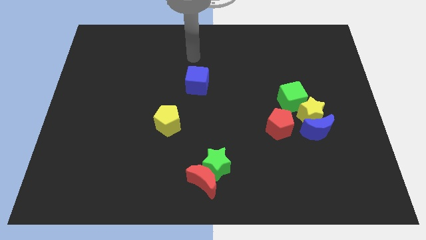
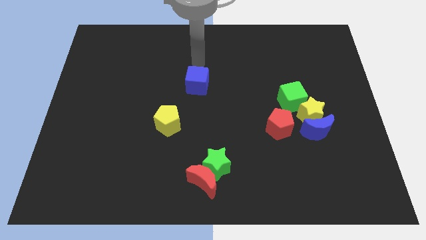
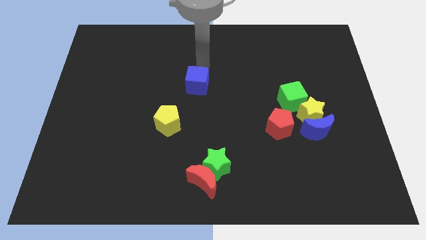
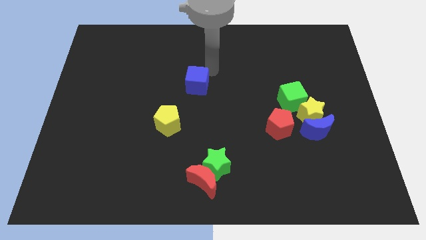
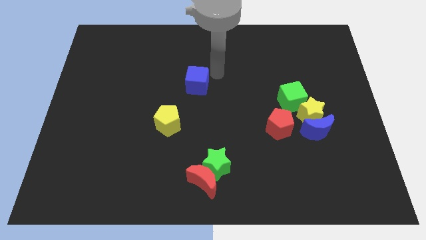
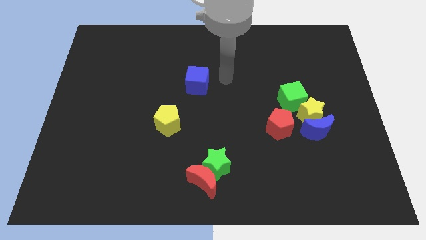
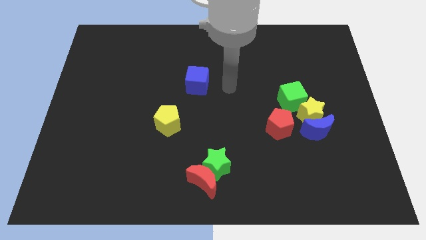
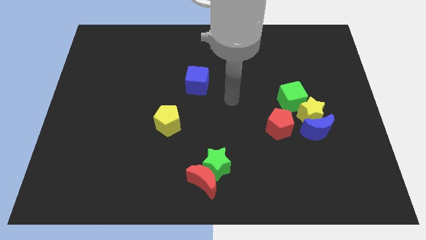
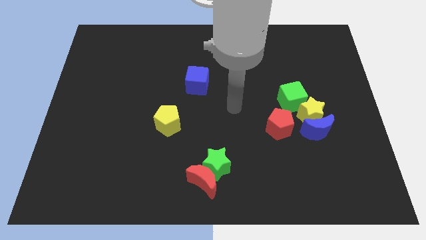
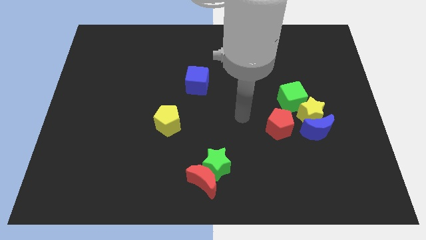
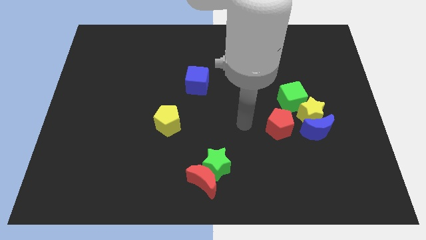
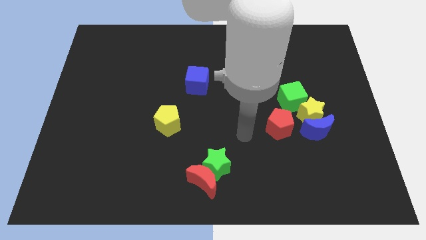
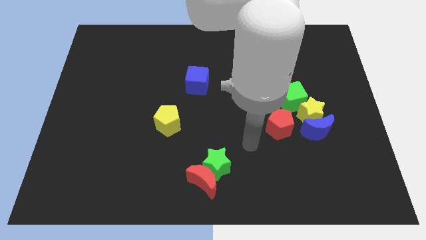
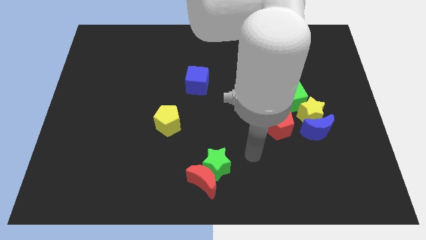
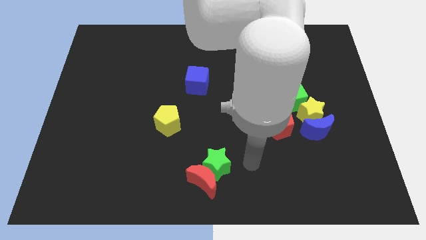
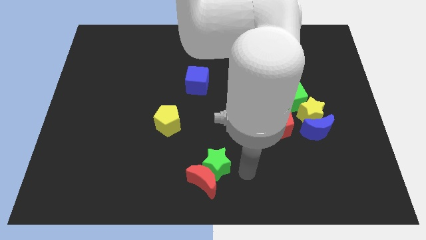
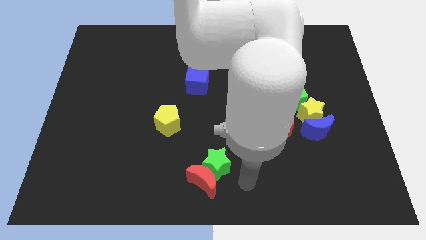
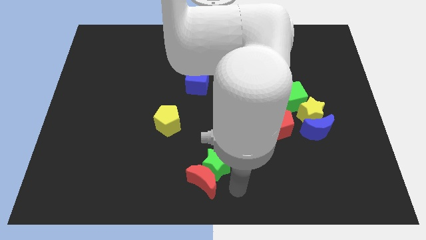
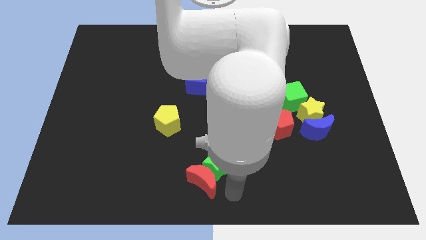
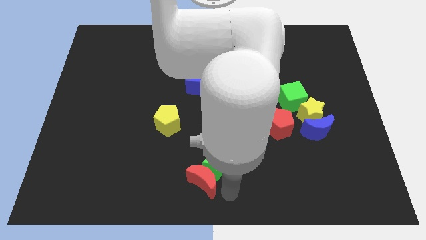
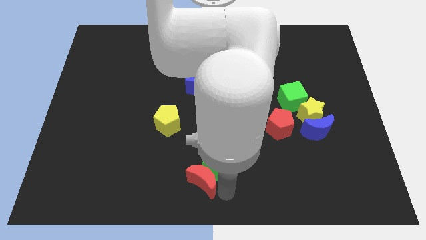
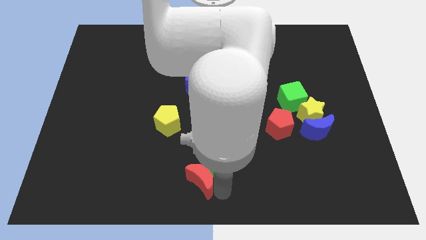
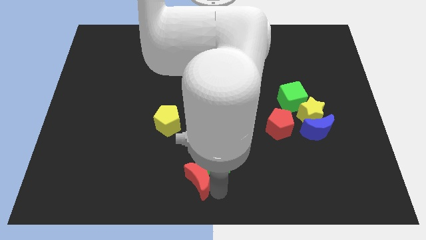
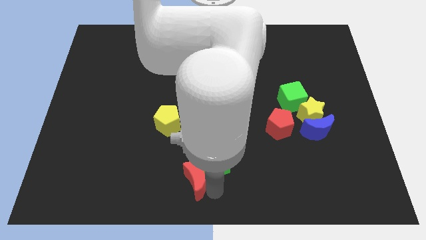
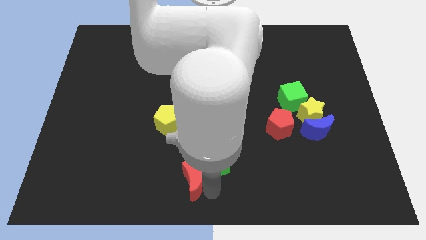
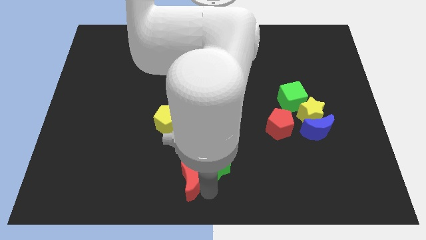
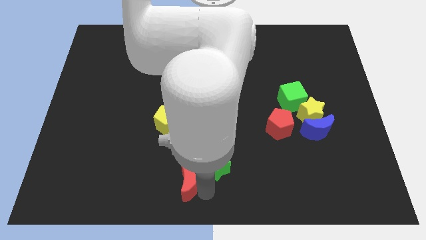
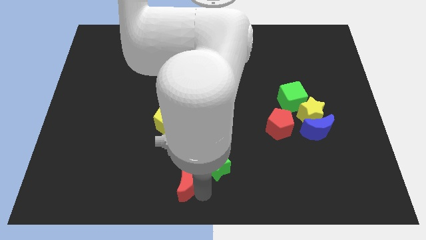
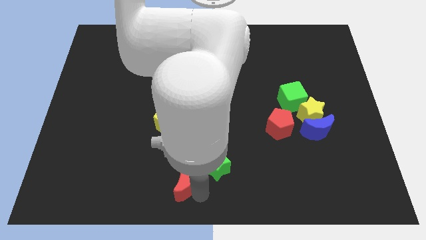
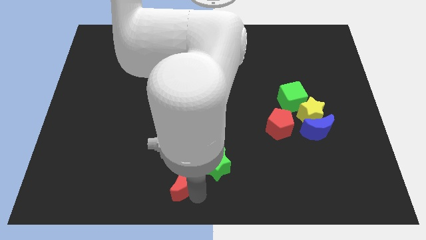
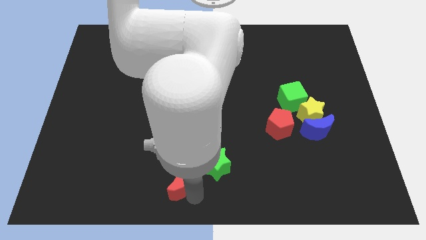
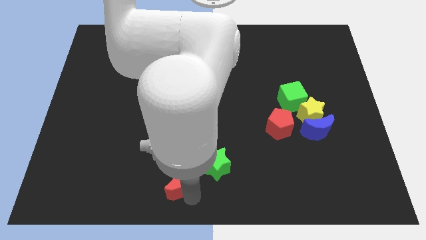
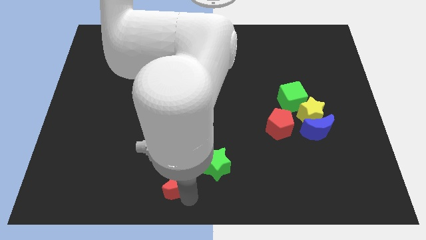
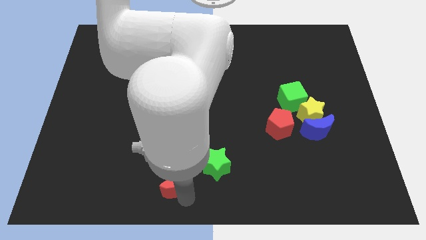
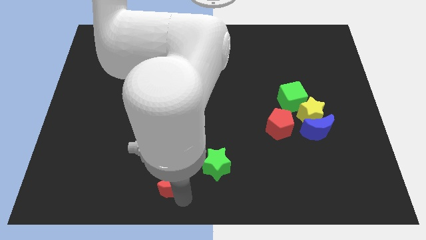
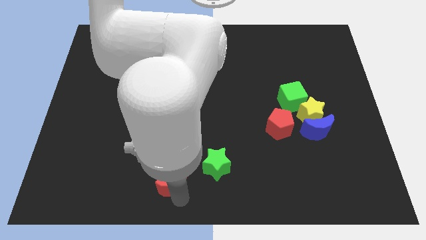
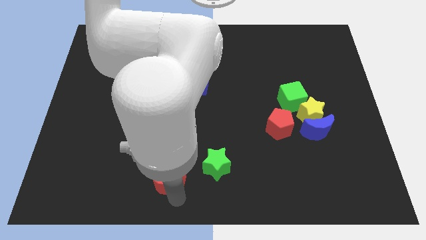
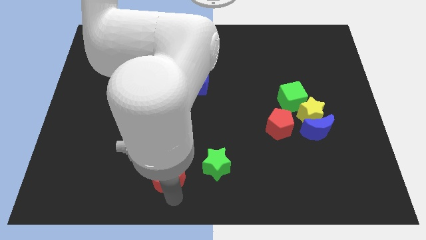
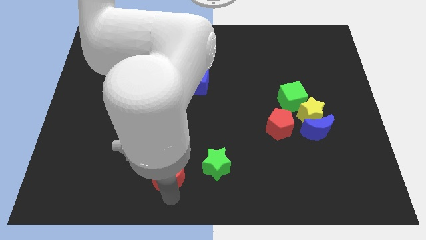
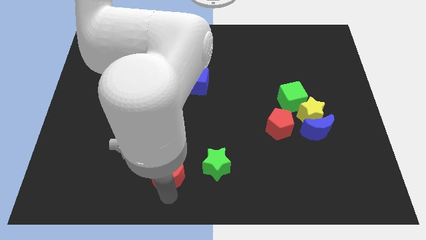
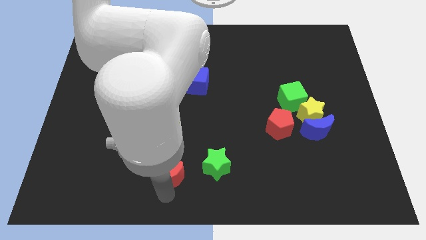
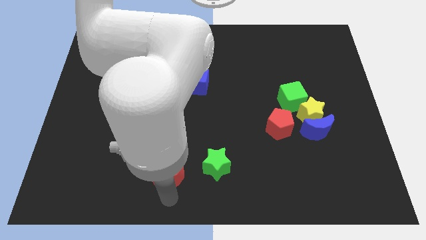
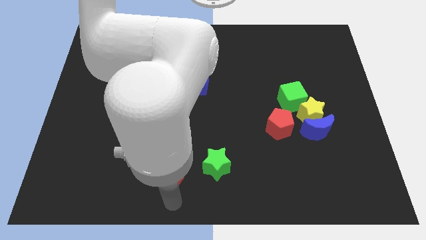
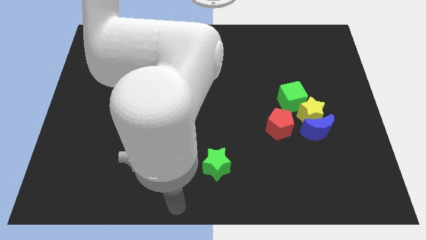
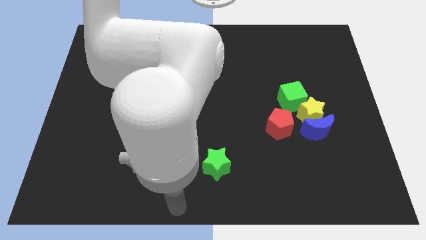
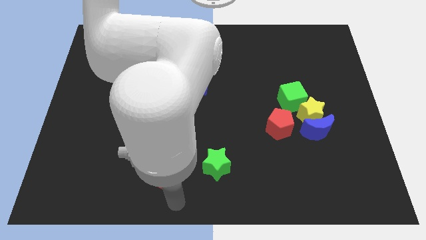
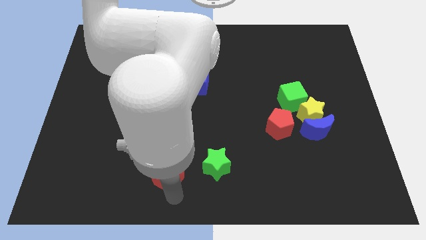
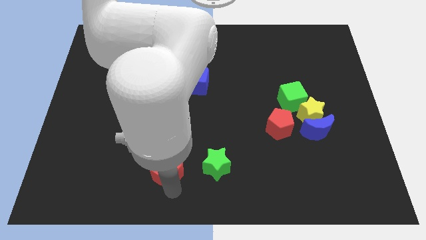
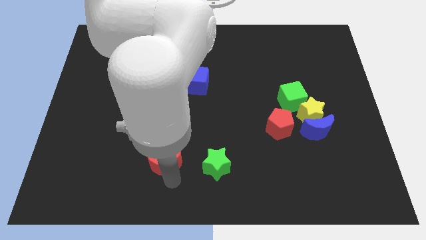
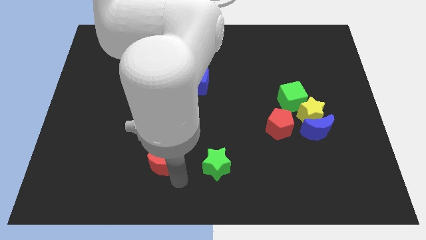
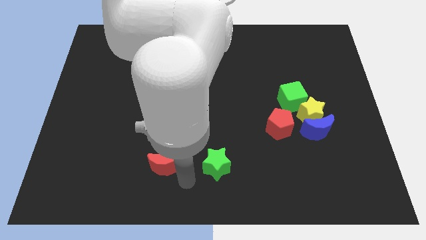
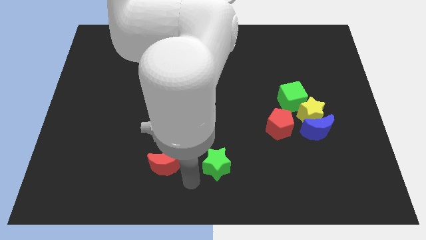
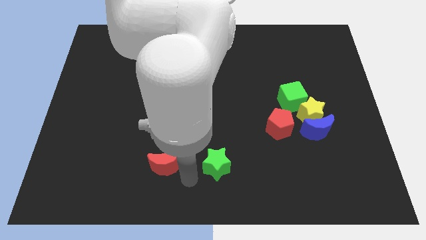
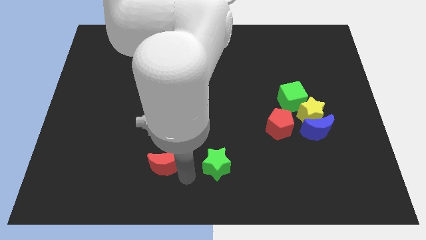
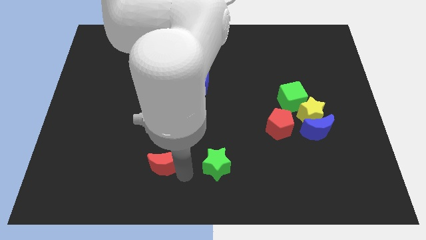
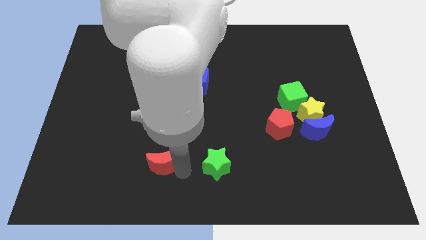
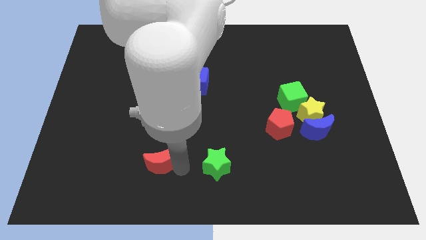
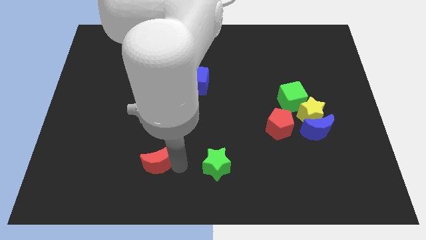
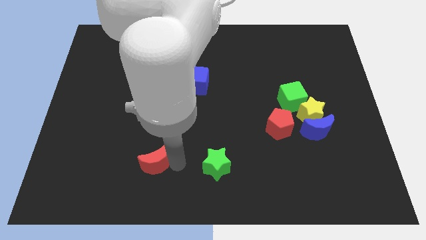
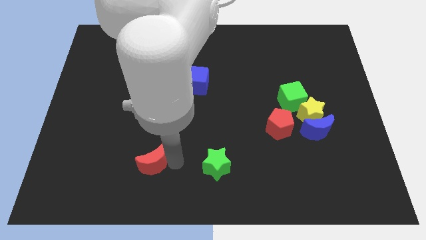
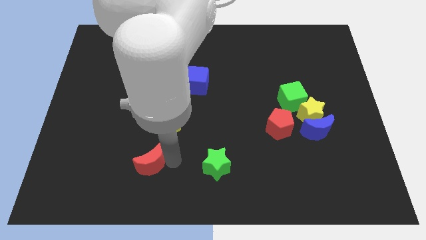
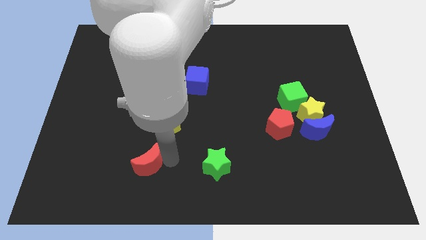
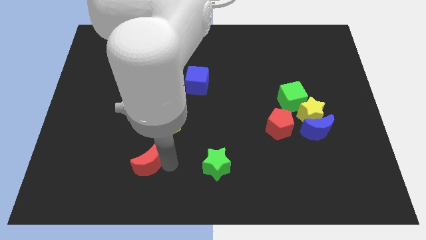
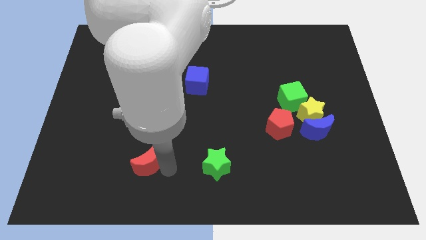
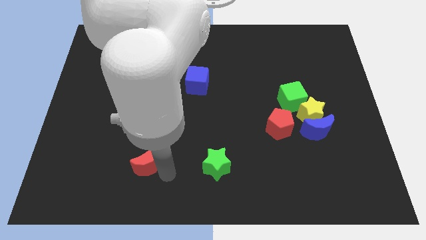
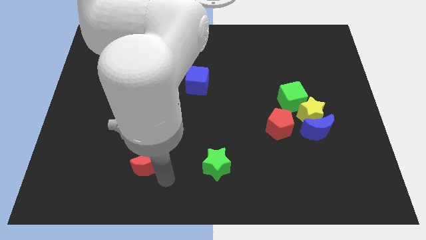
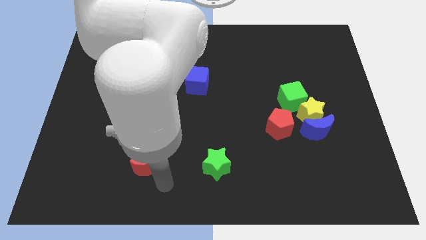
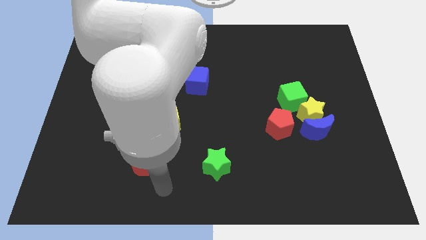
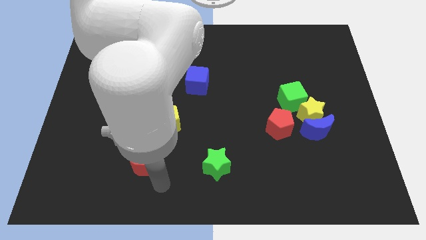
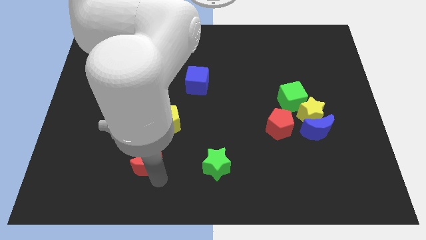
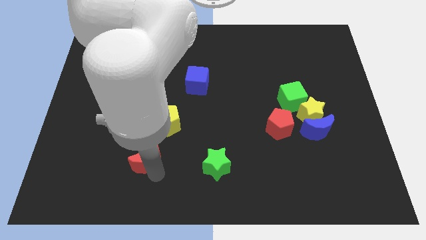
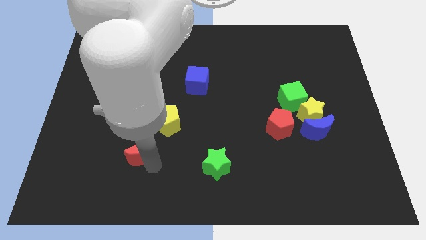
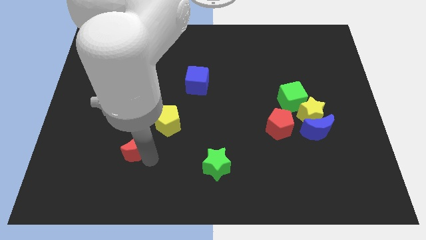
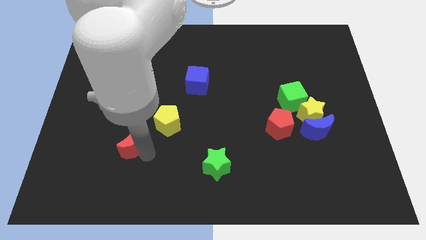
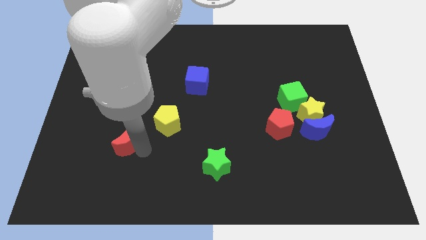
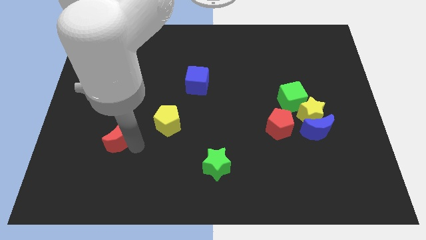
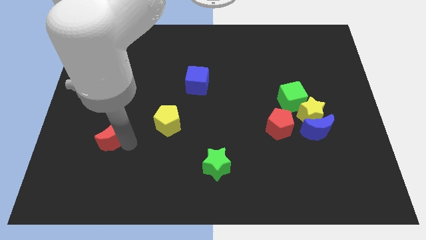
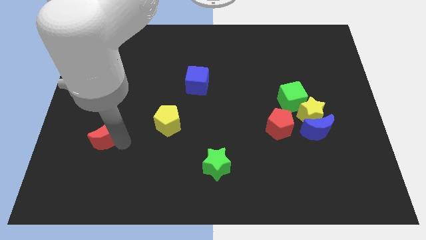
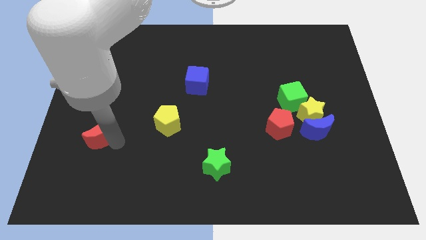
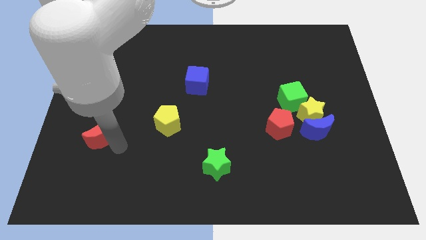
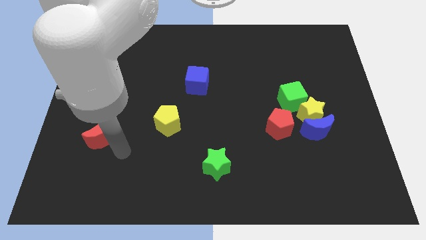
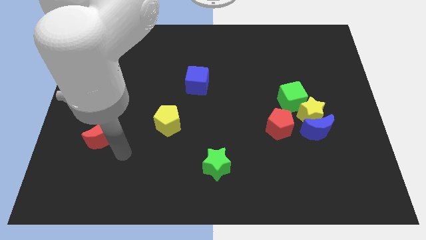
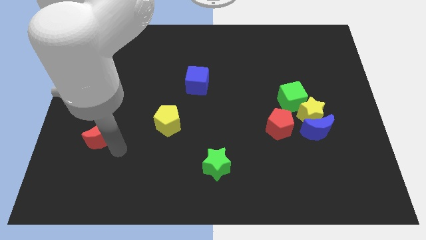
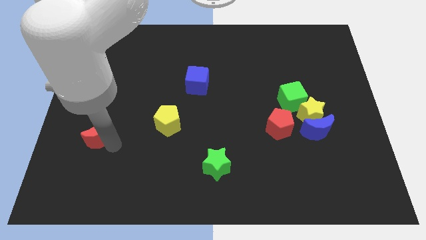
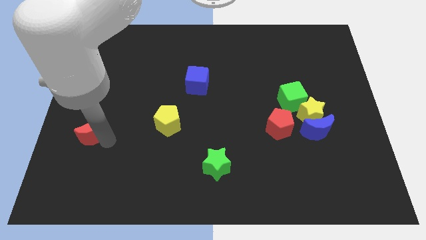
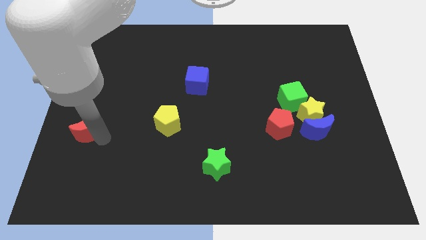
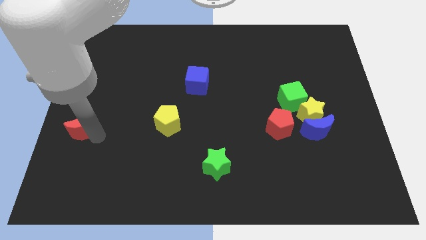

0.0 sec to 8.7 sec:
slide the red moon to the center left
